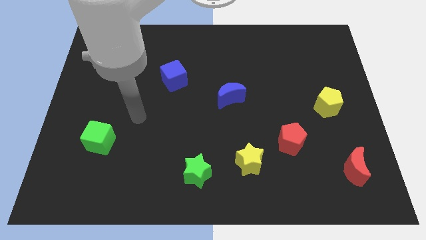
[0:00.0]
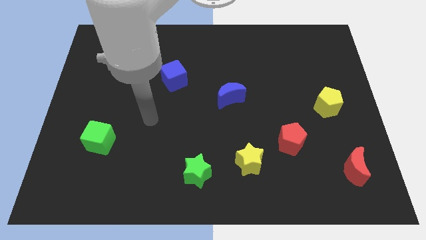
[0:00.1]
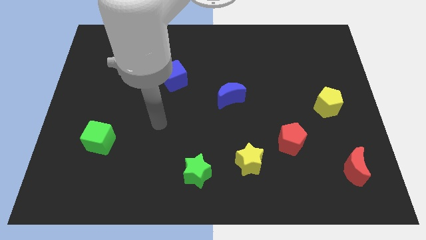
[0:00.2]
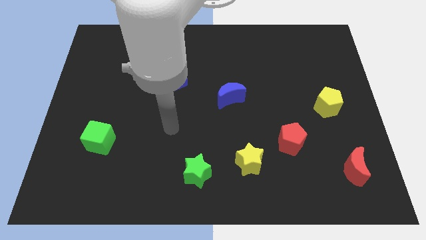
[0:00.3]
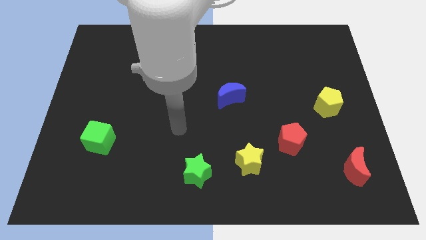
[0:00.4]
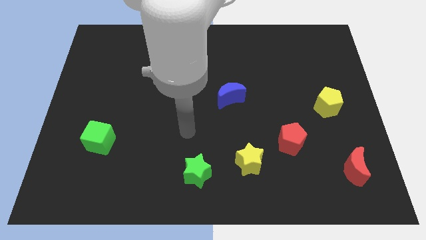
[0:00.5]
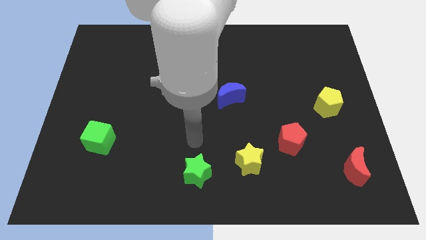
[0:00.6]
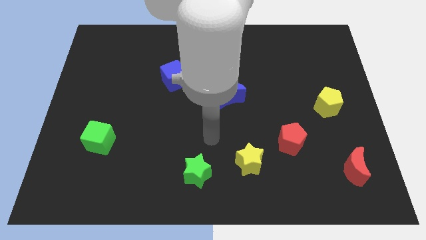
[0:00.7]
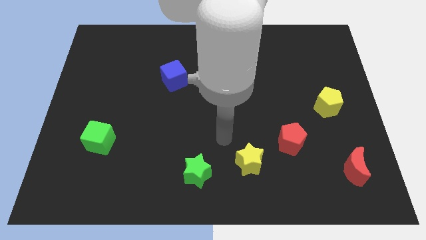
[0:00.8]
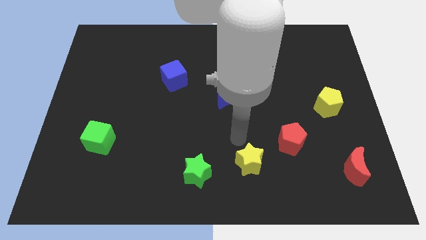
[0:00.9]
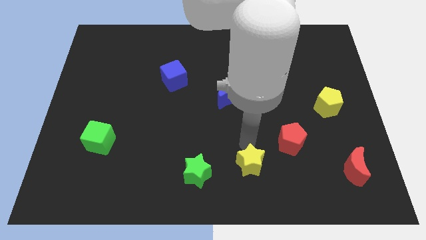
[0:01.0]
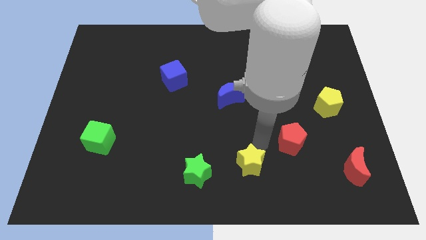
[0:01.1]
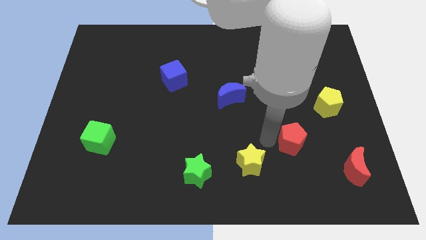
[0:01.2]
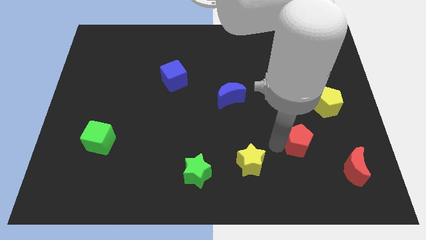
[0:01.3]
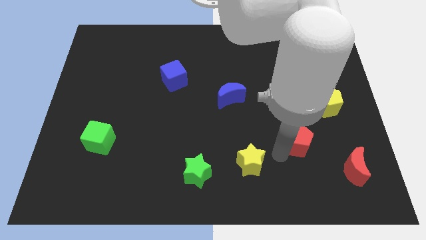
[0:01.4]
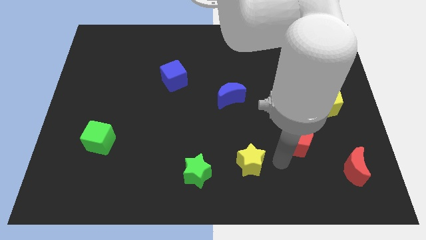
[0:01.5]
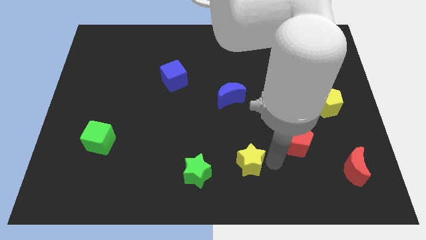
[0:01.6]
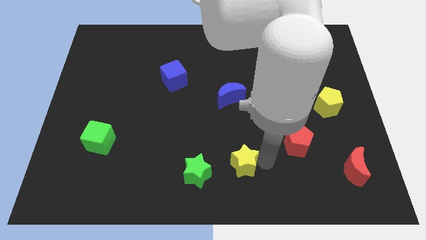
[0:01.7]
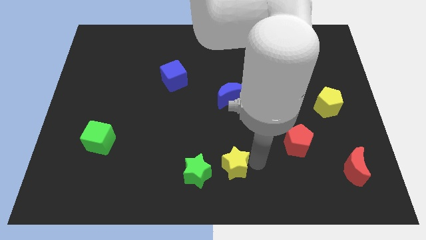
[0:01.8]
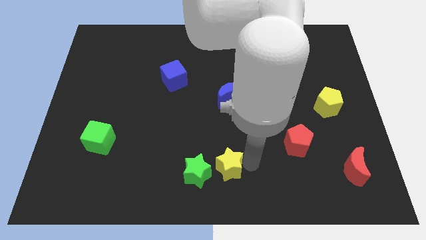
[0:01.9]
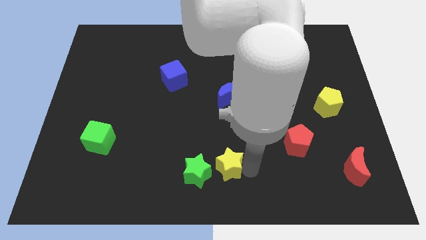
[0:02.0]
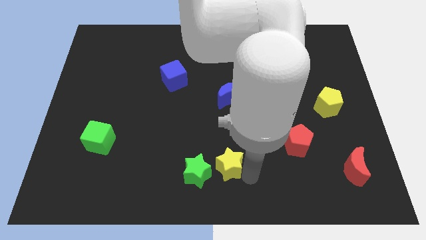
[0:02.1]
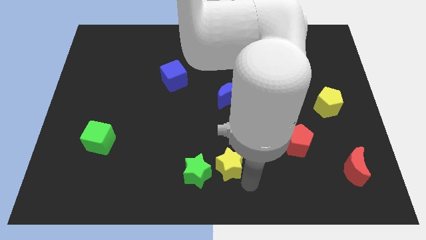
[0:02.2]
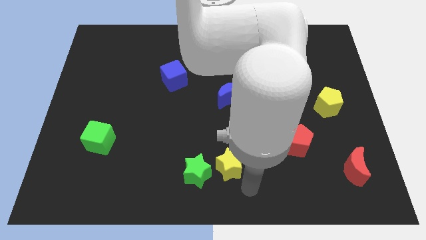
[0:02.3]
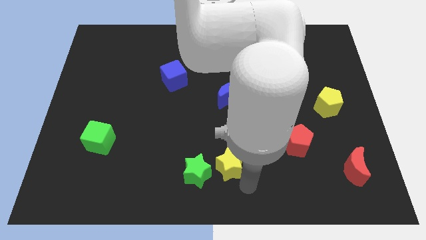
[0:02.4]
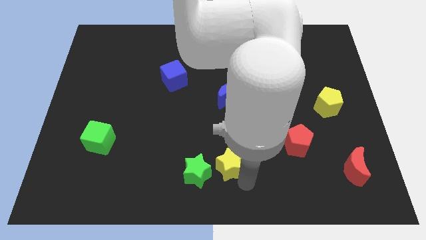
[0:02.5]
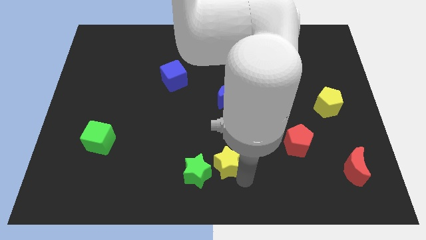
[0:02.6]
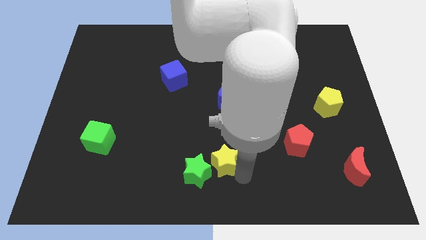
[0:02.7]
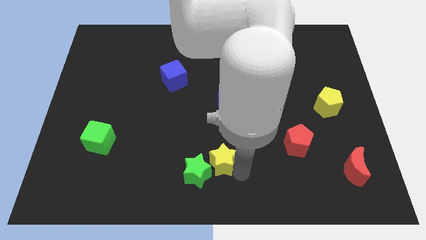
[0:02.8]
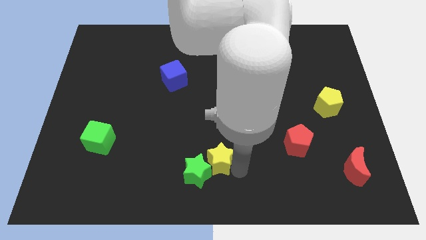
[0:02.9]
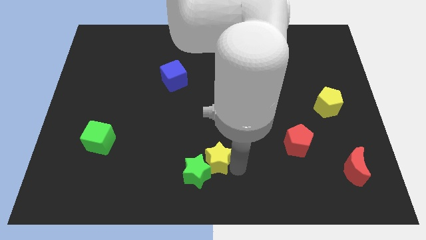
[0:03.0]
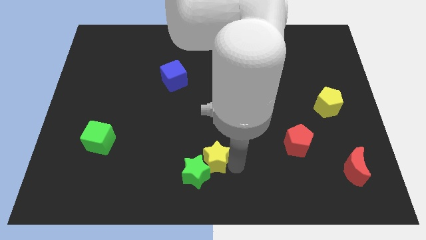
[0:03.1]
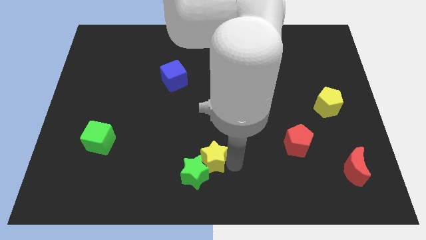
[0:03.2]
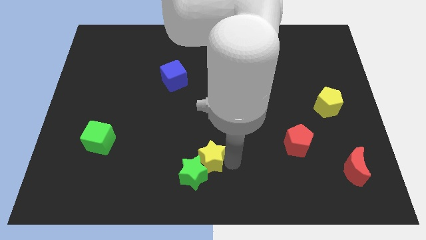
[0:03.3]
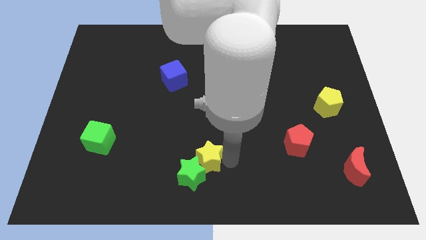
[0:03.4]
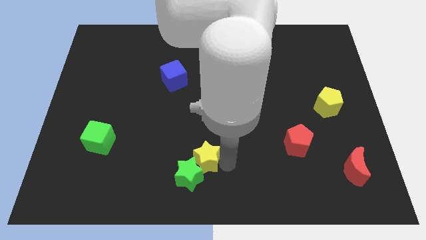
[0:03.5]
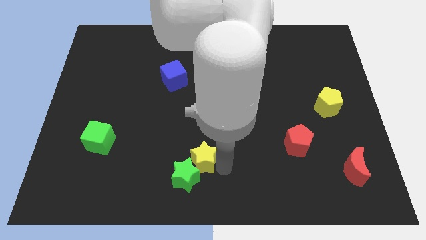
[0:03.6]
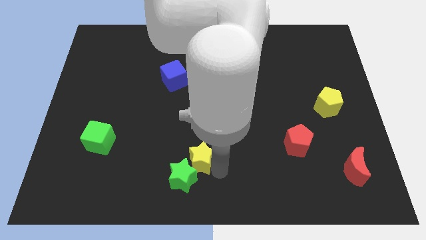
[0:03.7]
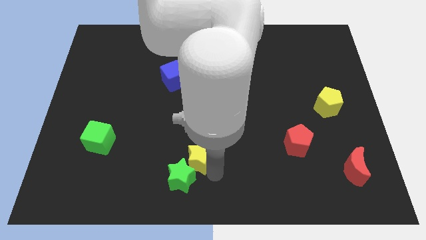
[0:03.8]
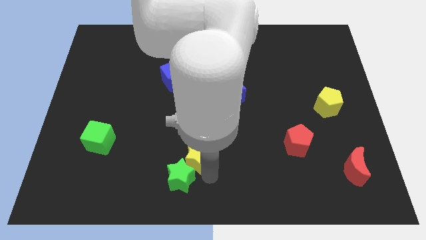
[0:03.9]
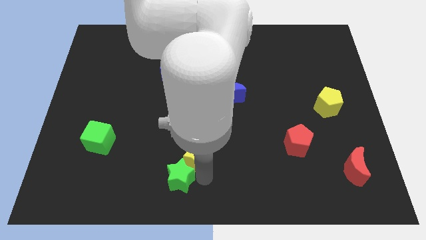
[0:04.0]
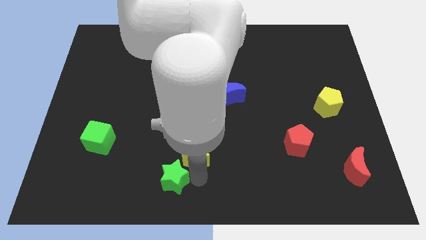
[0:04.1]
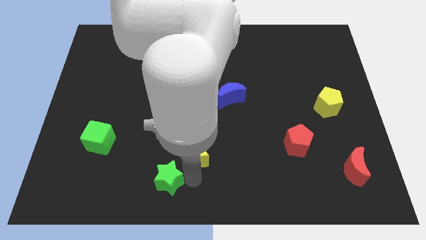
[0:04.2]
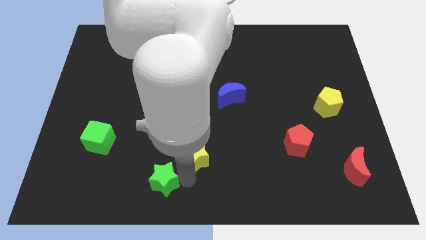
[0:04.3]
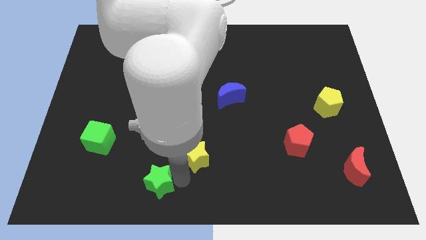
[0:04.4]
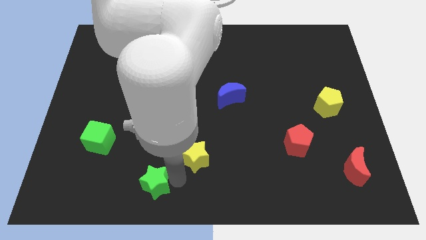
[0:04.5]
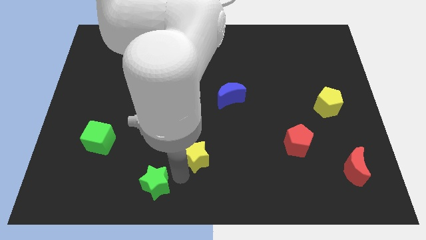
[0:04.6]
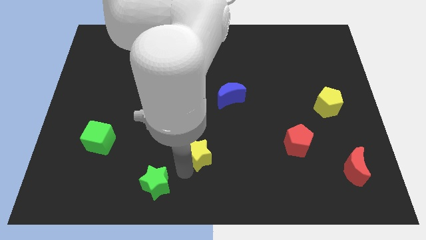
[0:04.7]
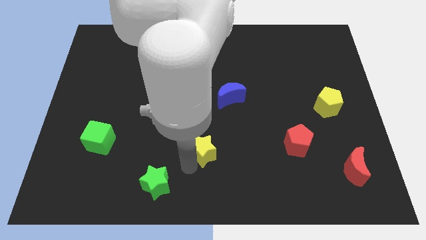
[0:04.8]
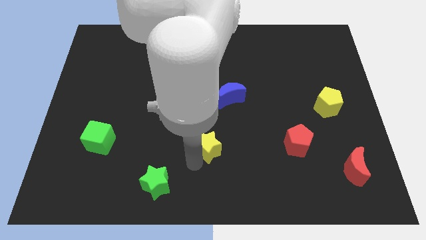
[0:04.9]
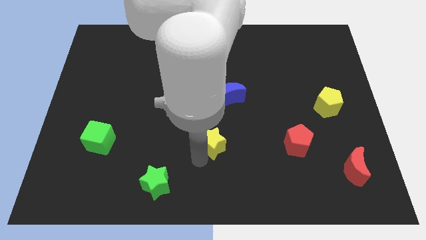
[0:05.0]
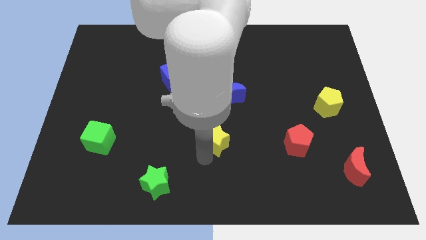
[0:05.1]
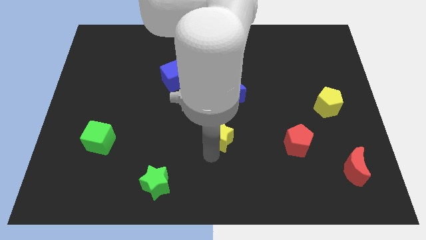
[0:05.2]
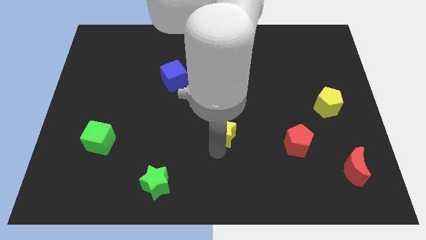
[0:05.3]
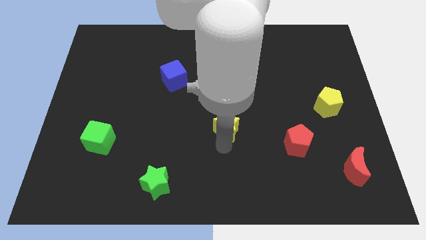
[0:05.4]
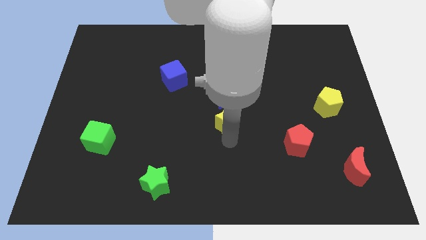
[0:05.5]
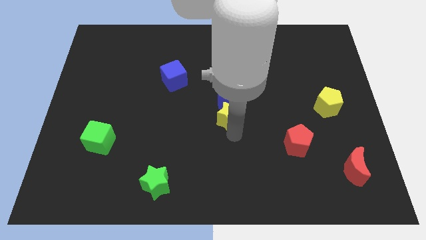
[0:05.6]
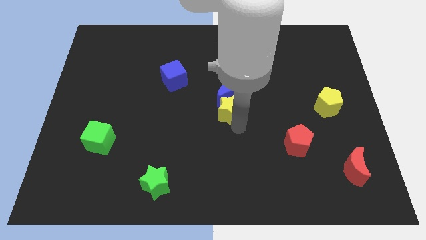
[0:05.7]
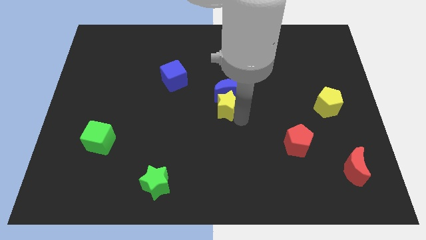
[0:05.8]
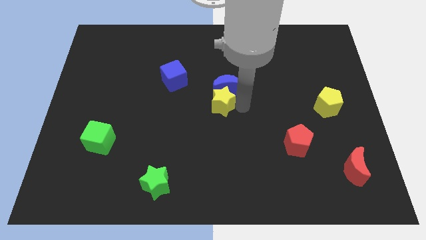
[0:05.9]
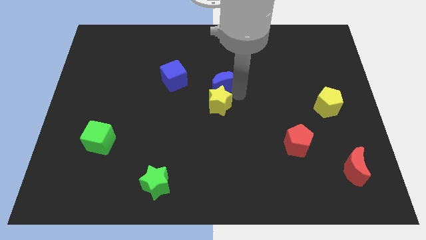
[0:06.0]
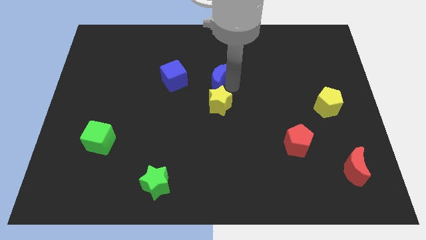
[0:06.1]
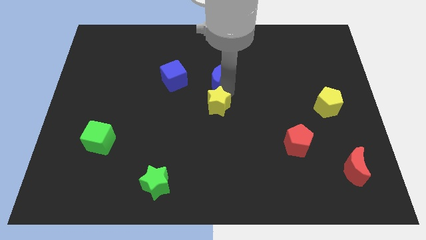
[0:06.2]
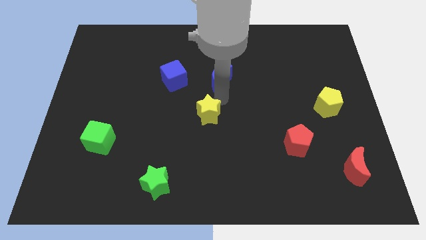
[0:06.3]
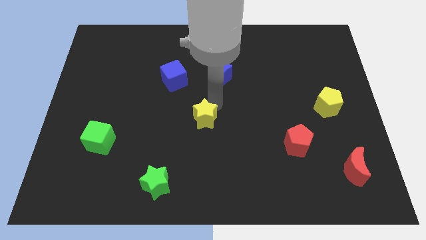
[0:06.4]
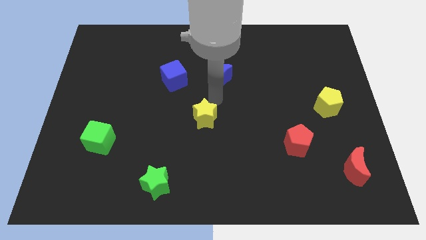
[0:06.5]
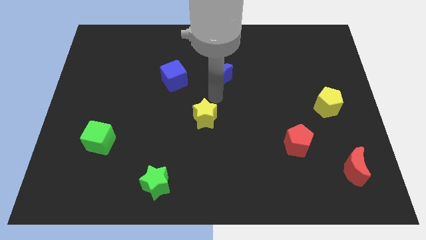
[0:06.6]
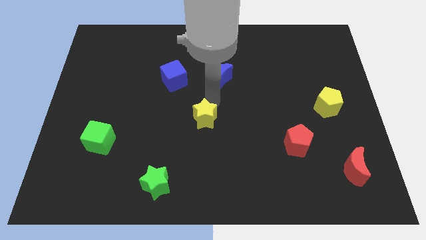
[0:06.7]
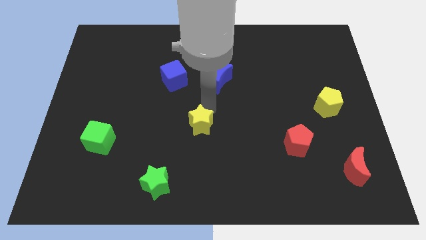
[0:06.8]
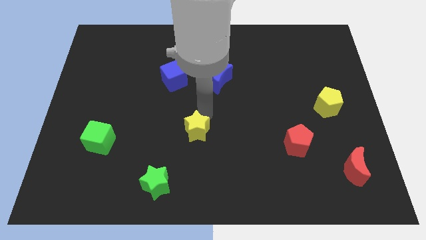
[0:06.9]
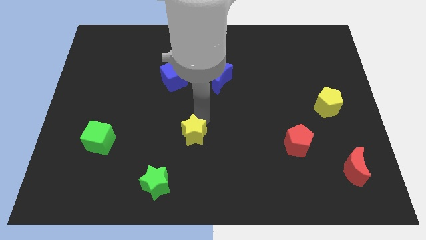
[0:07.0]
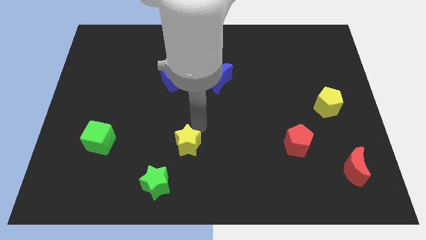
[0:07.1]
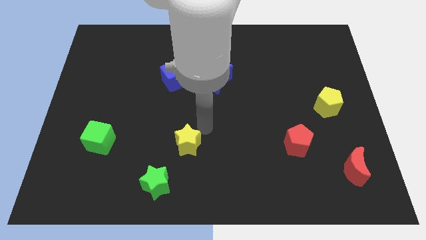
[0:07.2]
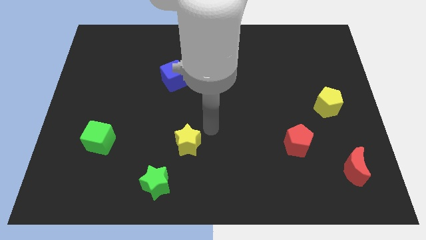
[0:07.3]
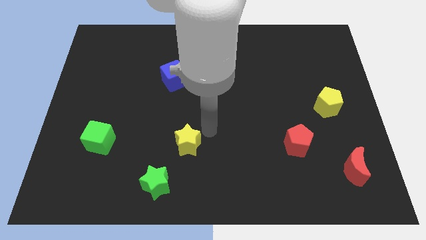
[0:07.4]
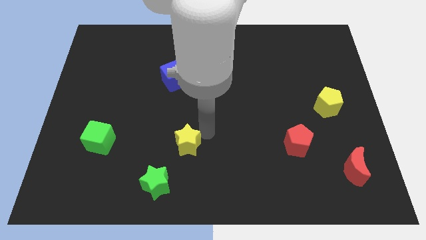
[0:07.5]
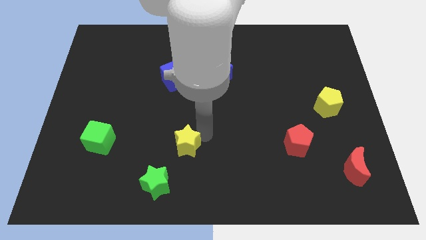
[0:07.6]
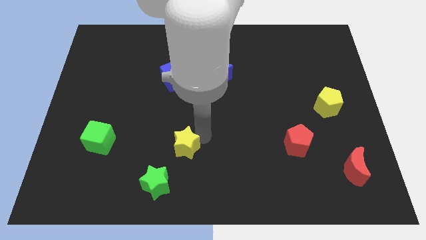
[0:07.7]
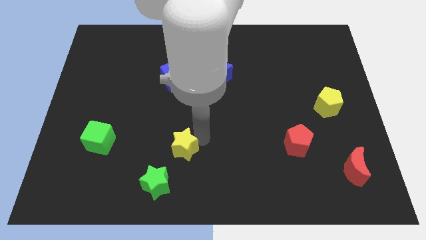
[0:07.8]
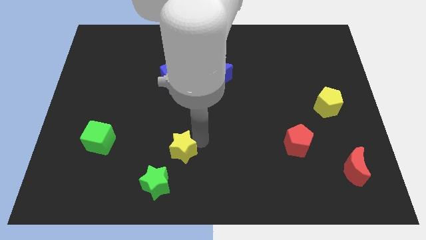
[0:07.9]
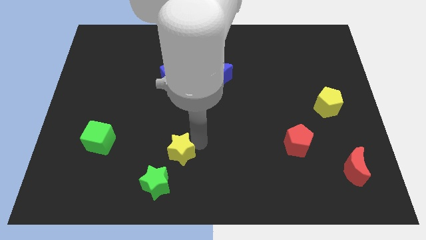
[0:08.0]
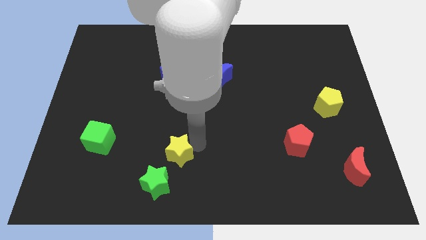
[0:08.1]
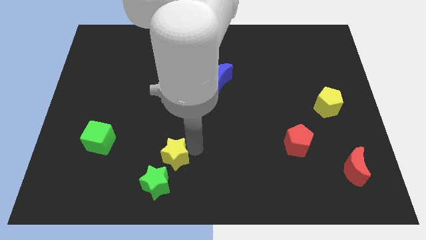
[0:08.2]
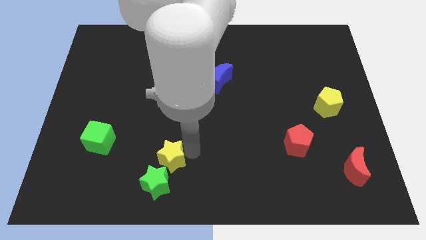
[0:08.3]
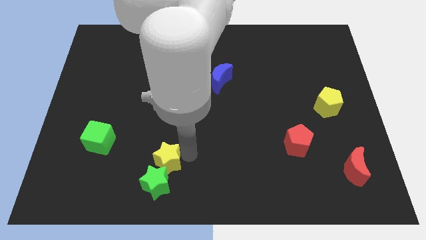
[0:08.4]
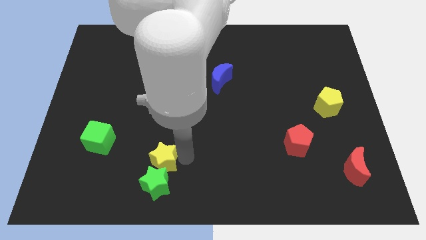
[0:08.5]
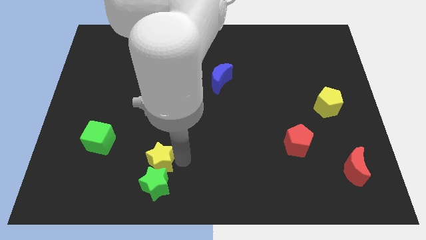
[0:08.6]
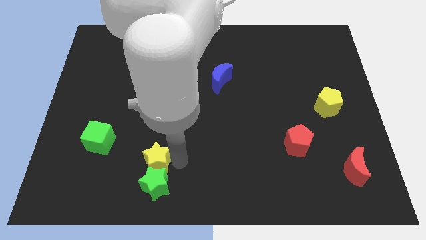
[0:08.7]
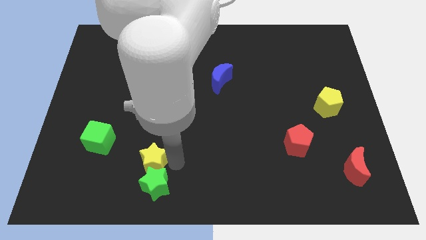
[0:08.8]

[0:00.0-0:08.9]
move the yellow star left
